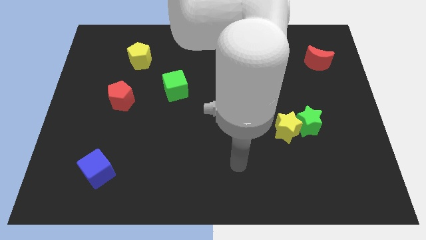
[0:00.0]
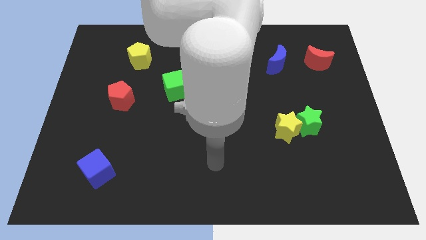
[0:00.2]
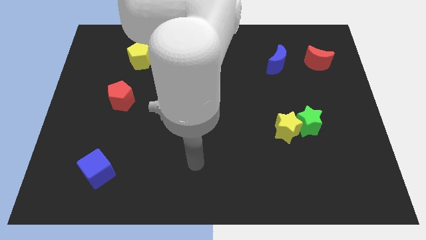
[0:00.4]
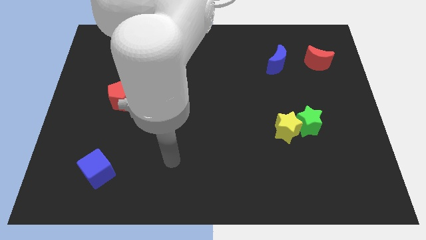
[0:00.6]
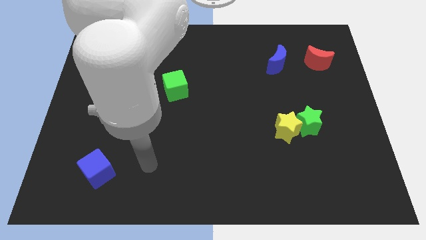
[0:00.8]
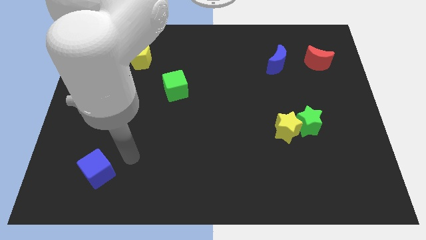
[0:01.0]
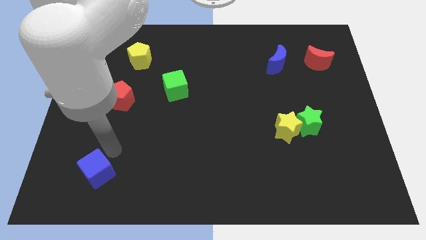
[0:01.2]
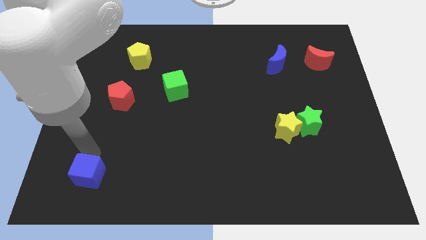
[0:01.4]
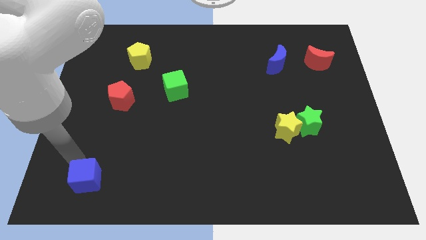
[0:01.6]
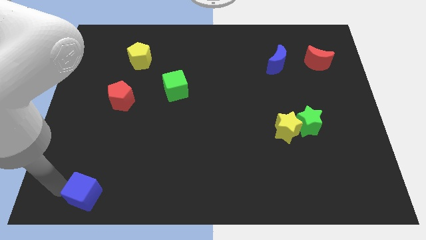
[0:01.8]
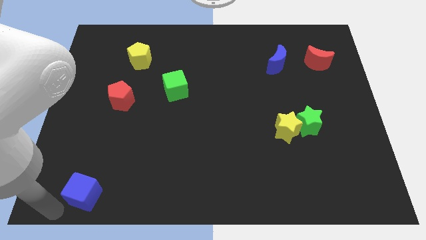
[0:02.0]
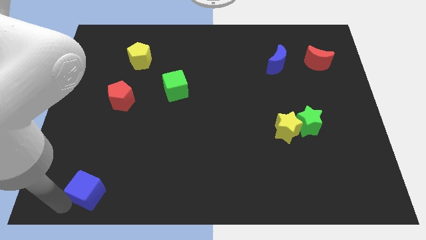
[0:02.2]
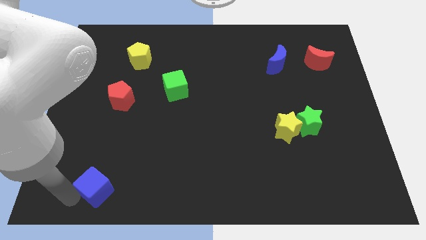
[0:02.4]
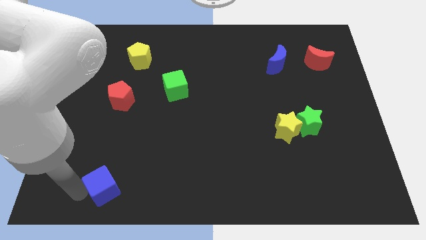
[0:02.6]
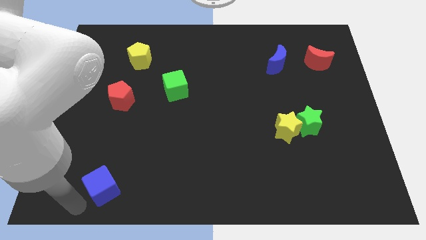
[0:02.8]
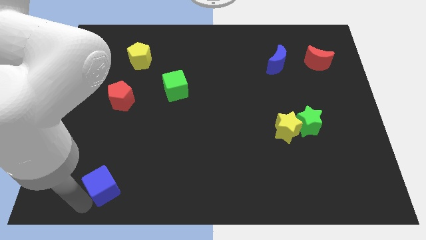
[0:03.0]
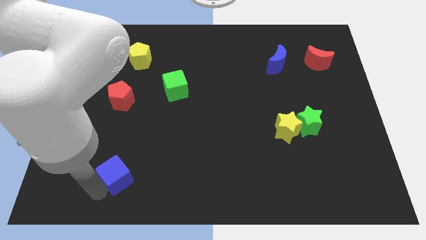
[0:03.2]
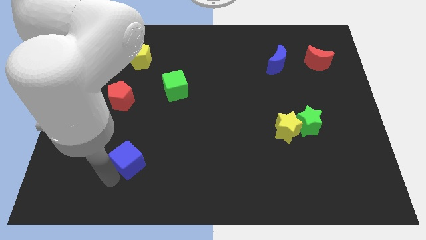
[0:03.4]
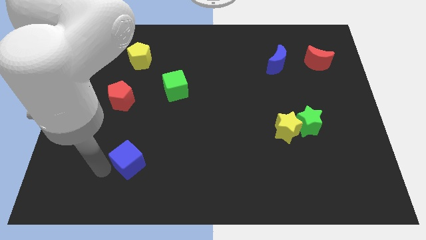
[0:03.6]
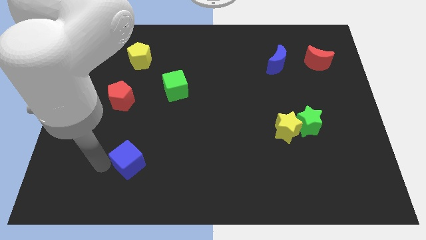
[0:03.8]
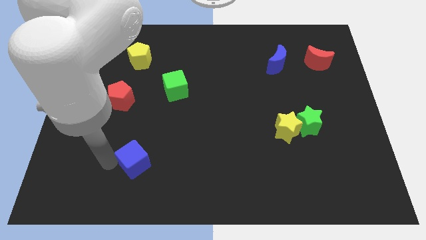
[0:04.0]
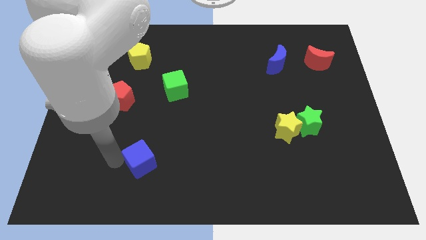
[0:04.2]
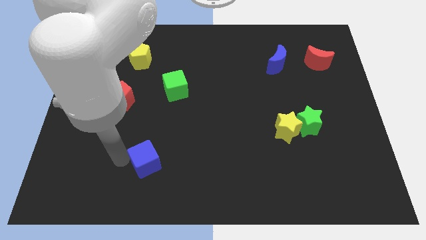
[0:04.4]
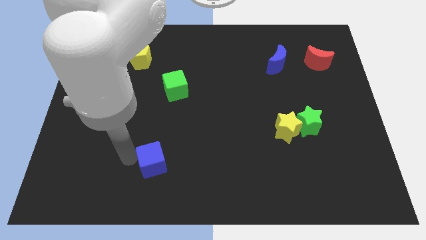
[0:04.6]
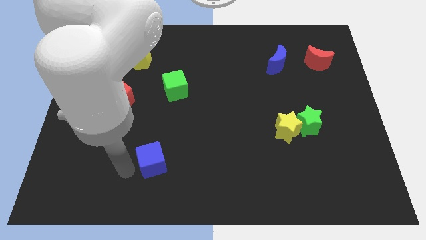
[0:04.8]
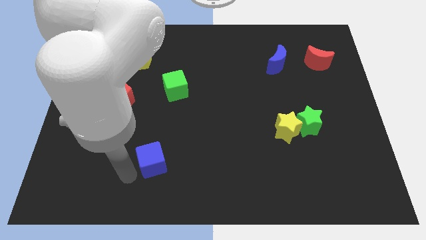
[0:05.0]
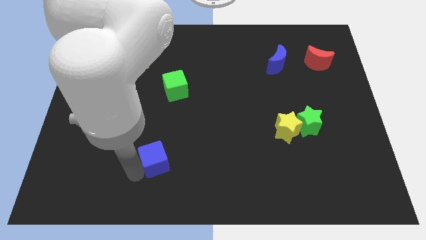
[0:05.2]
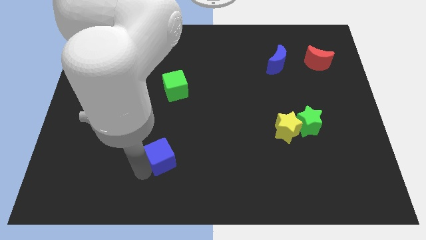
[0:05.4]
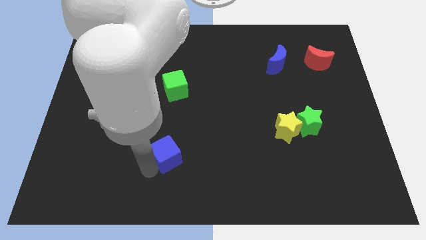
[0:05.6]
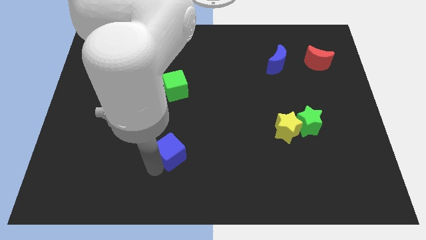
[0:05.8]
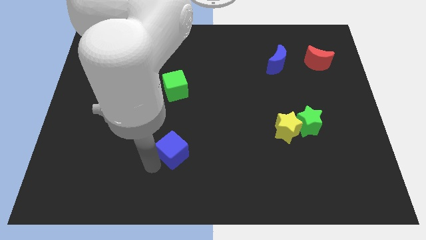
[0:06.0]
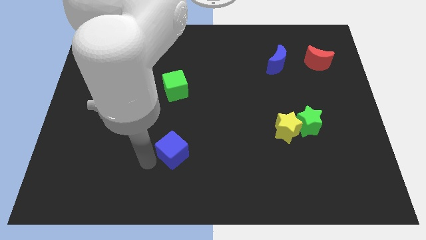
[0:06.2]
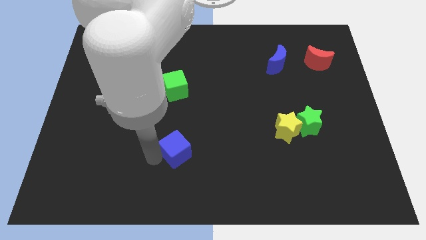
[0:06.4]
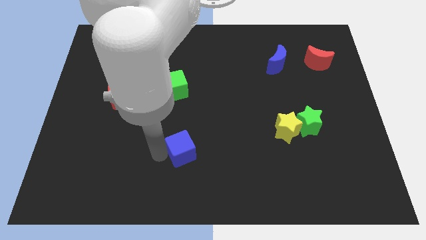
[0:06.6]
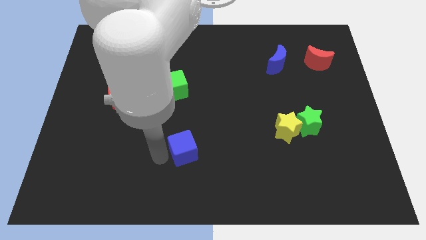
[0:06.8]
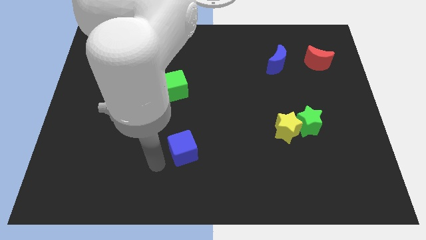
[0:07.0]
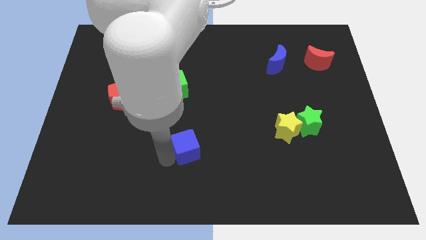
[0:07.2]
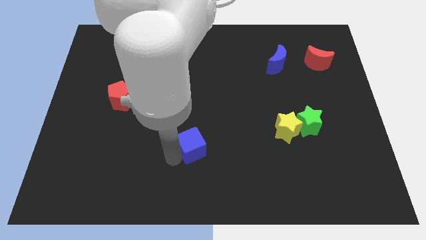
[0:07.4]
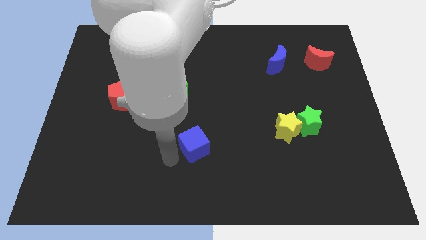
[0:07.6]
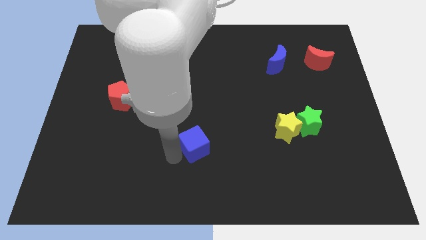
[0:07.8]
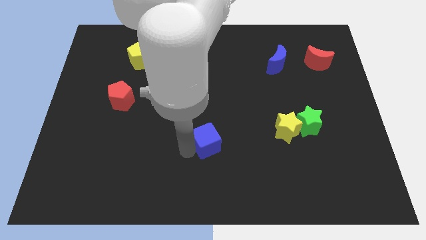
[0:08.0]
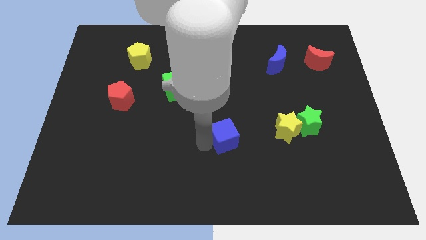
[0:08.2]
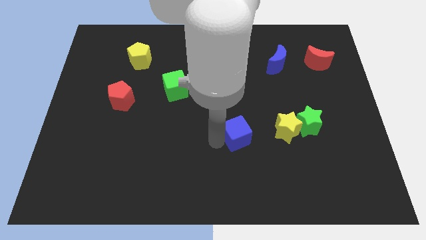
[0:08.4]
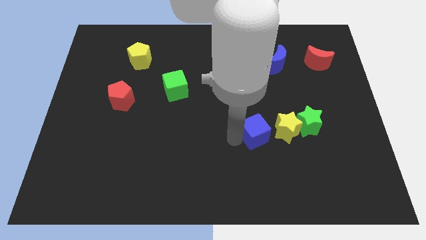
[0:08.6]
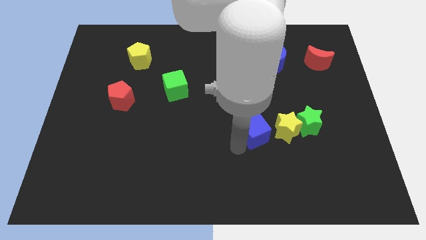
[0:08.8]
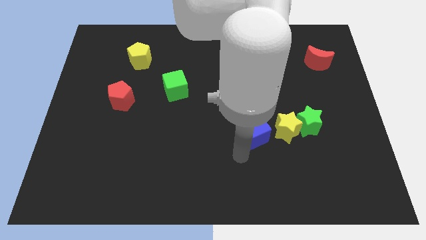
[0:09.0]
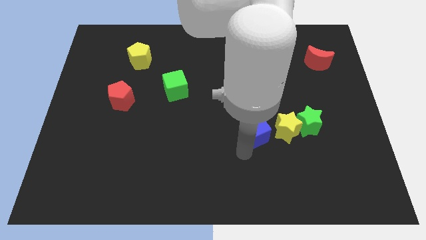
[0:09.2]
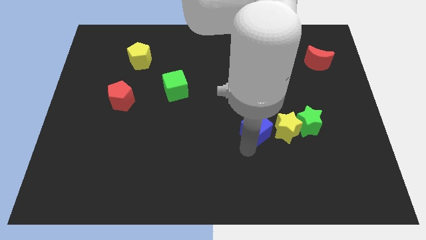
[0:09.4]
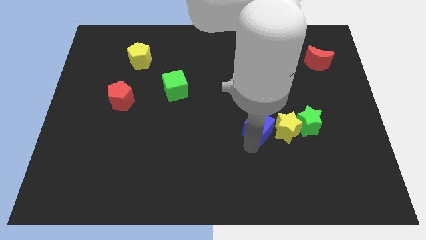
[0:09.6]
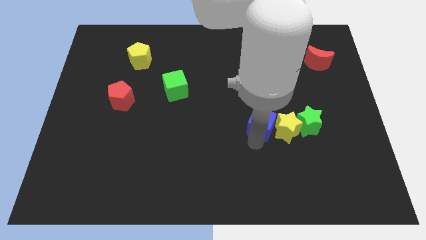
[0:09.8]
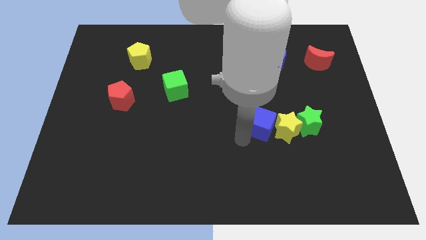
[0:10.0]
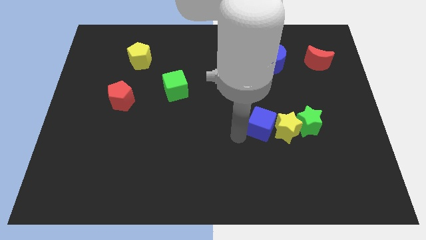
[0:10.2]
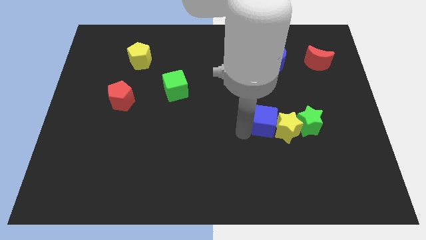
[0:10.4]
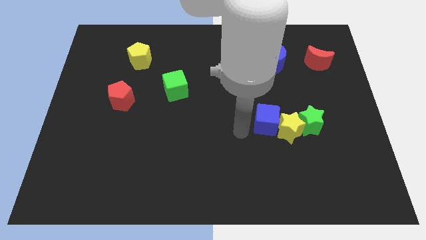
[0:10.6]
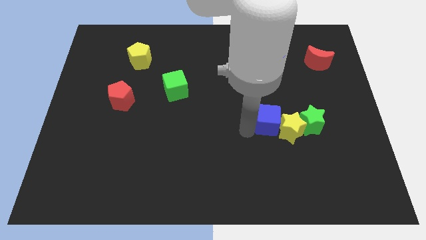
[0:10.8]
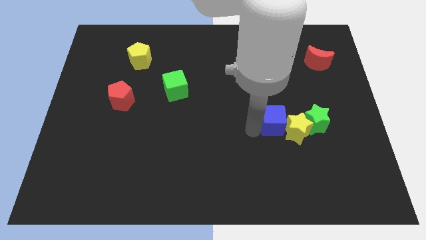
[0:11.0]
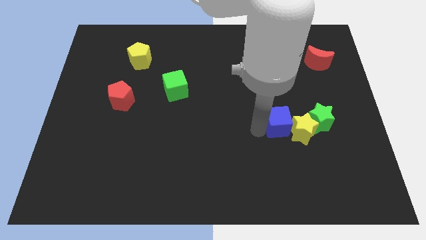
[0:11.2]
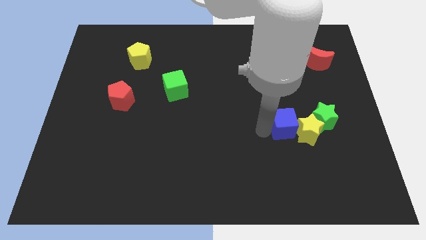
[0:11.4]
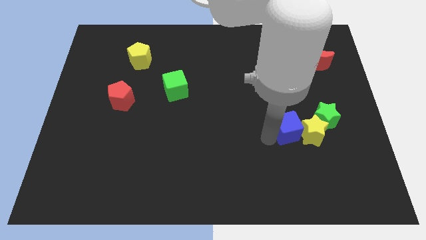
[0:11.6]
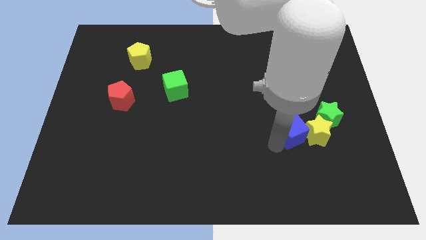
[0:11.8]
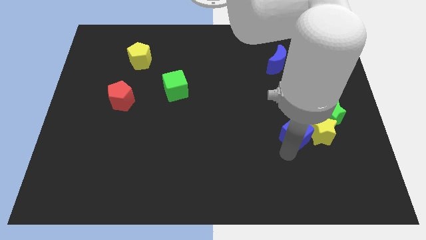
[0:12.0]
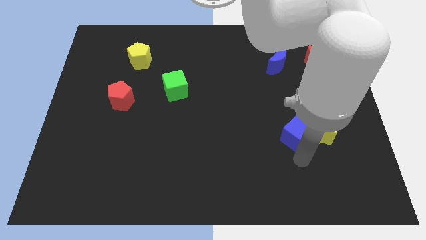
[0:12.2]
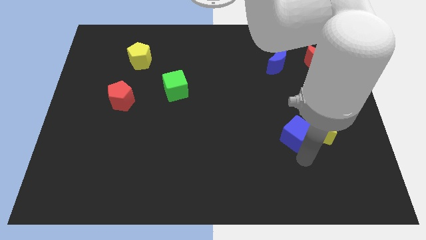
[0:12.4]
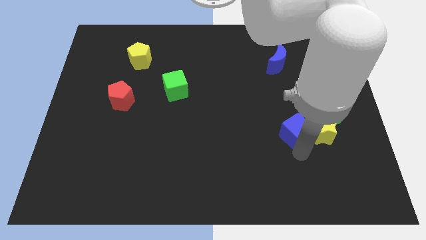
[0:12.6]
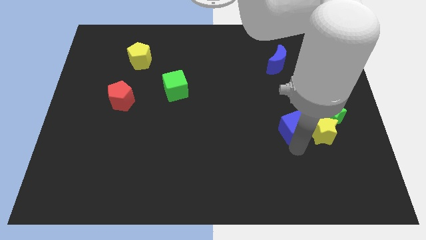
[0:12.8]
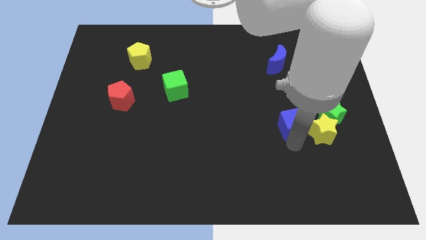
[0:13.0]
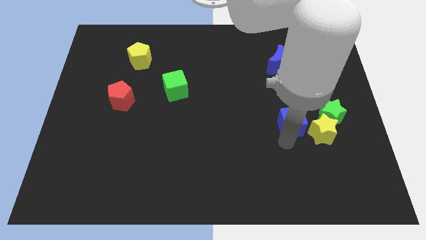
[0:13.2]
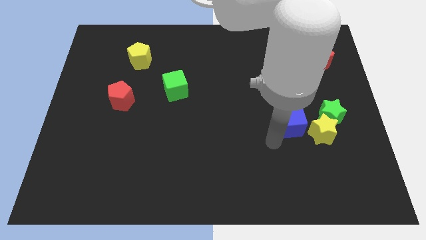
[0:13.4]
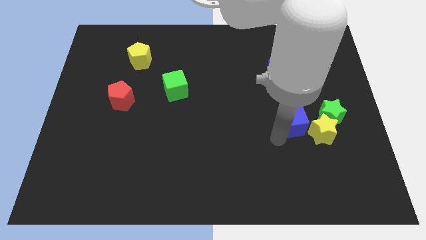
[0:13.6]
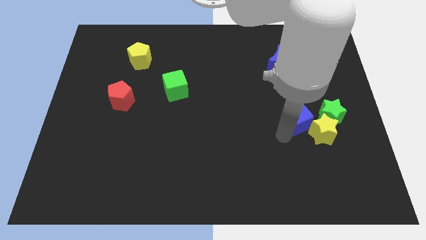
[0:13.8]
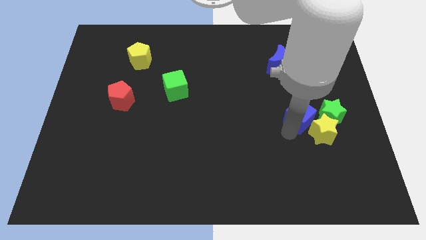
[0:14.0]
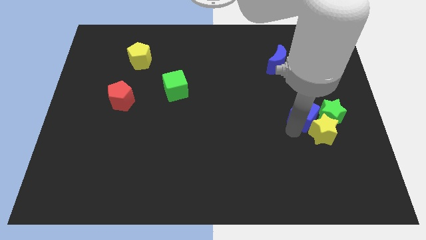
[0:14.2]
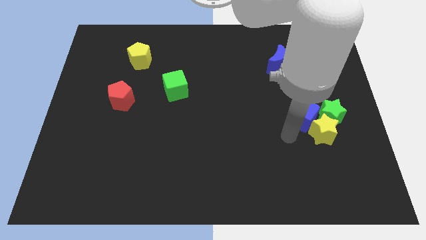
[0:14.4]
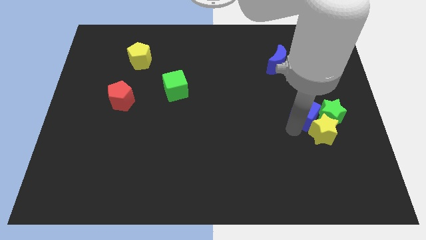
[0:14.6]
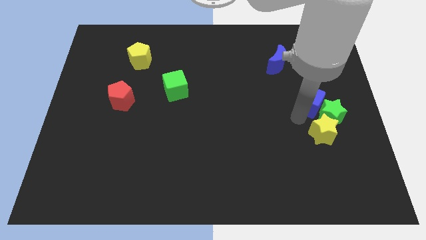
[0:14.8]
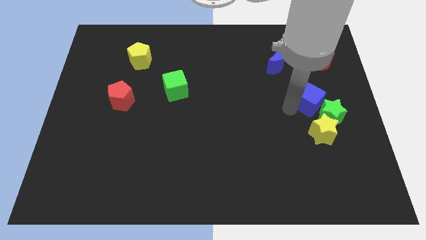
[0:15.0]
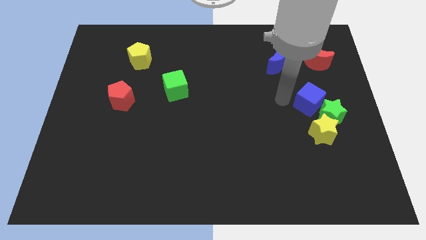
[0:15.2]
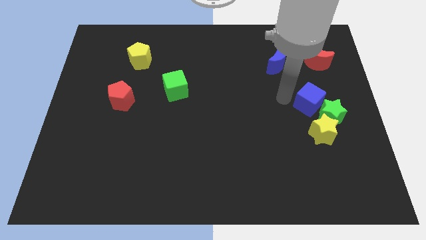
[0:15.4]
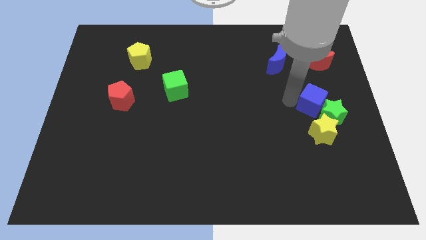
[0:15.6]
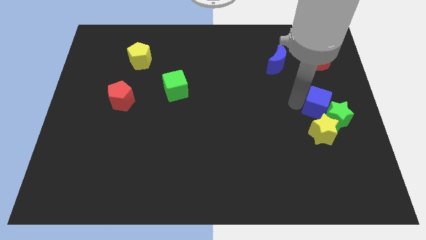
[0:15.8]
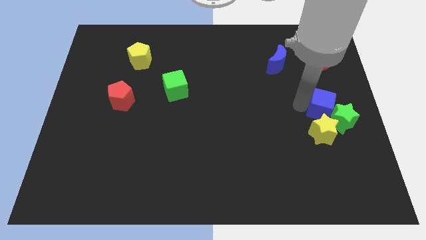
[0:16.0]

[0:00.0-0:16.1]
move the blue cube to the center right

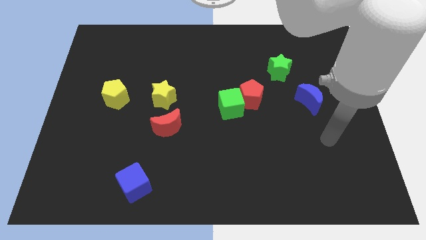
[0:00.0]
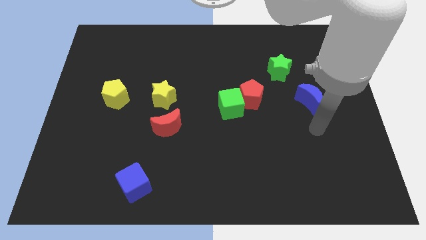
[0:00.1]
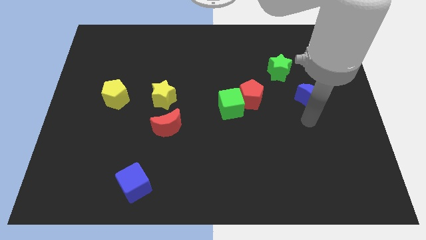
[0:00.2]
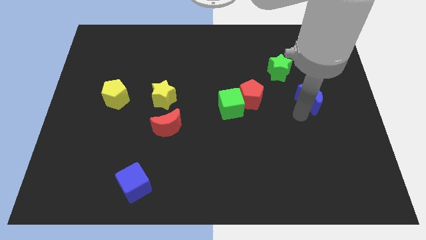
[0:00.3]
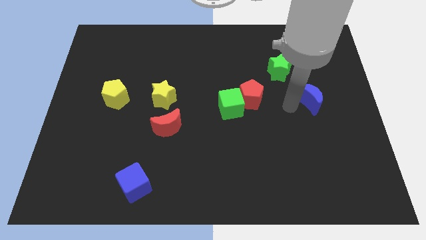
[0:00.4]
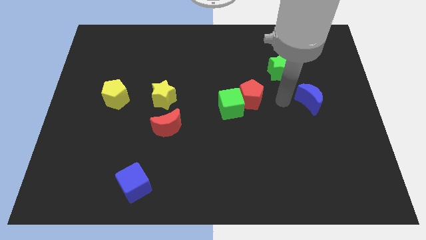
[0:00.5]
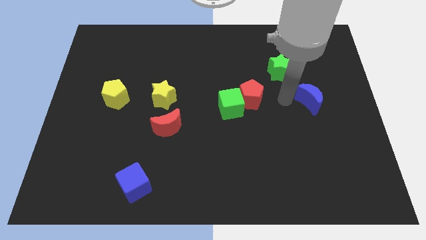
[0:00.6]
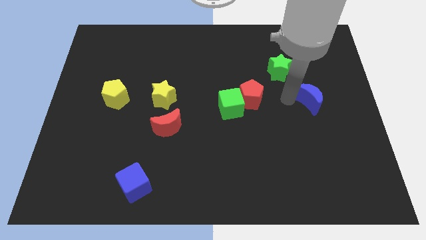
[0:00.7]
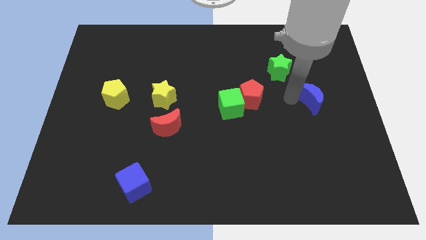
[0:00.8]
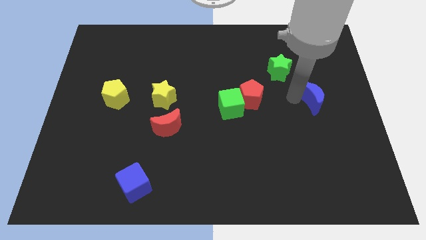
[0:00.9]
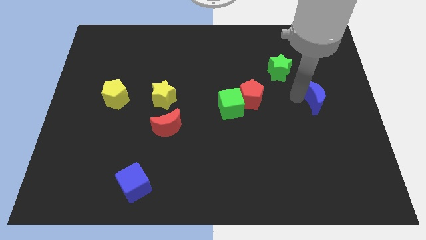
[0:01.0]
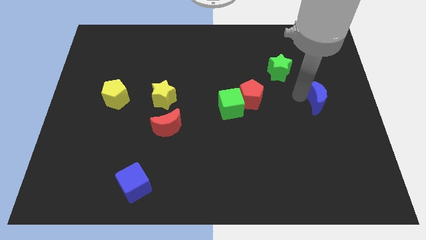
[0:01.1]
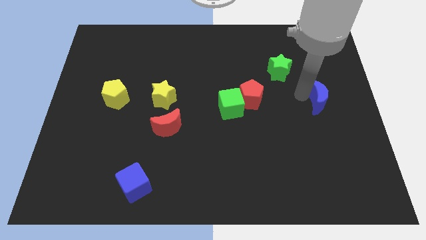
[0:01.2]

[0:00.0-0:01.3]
push the blue moon to the right side of the board
